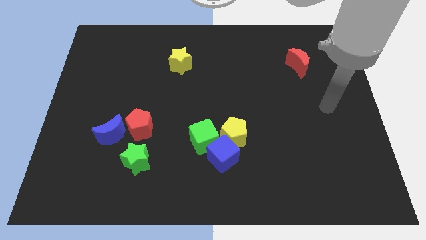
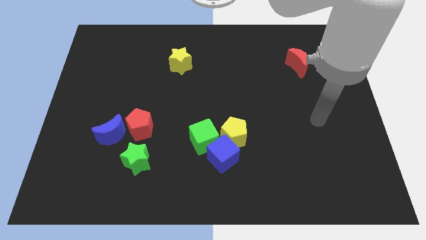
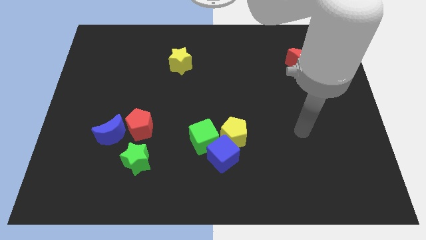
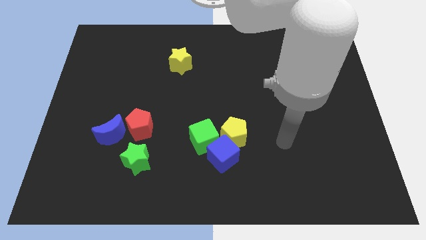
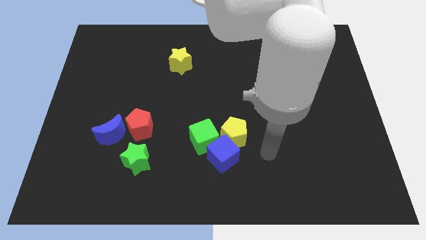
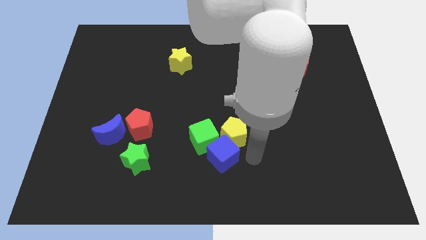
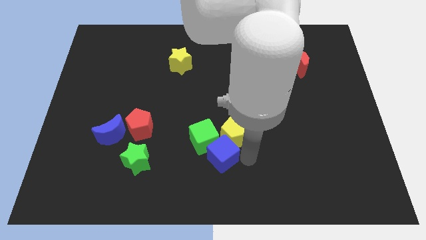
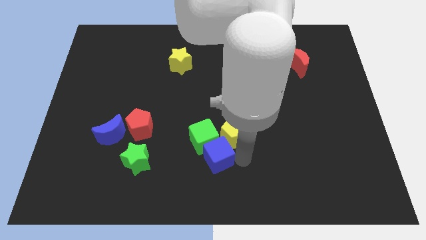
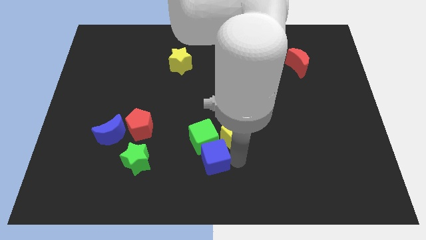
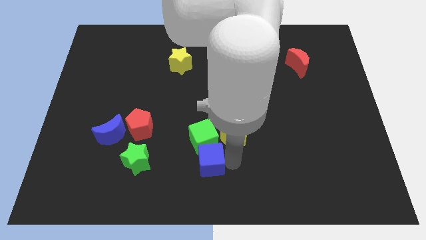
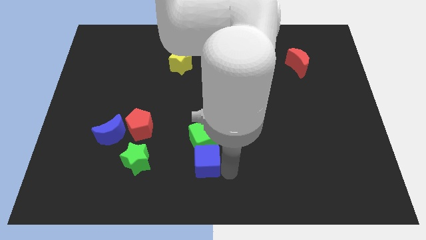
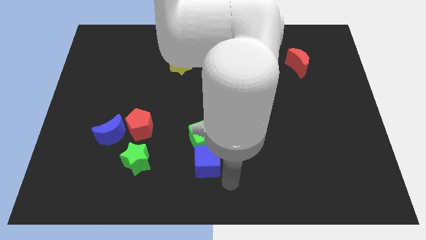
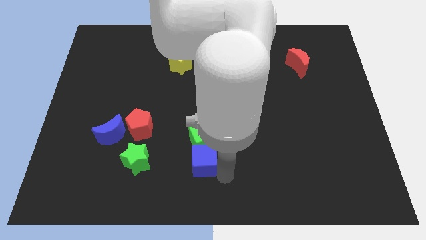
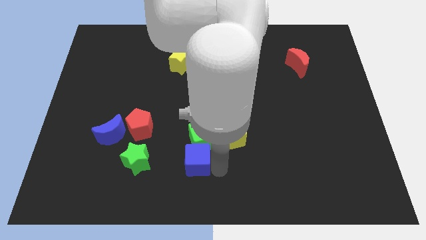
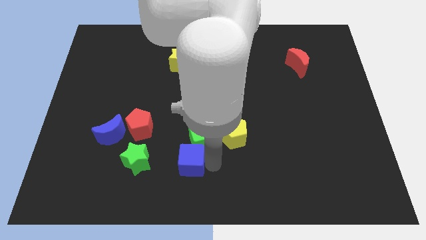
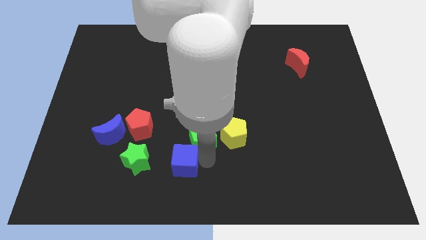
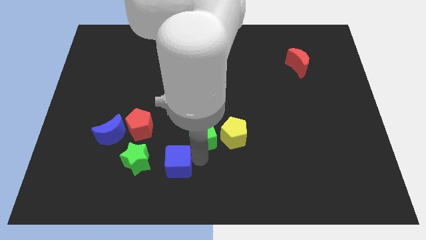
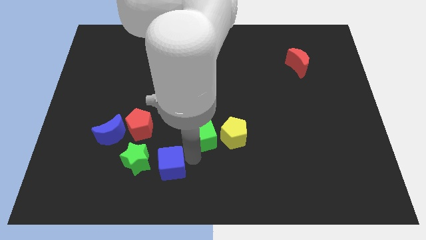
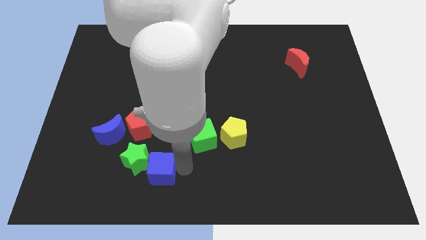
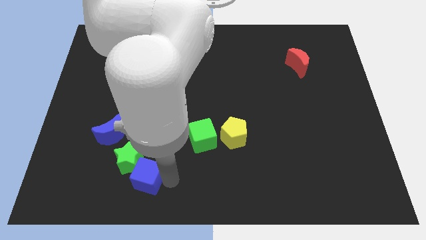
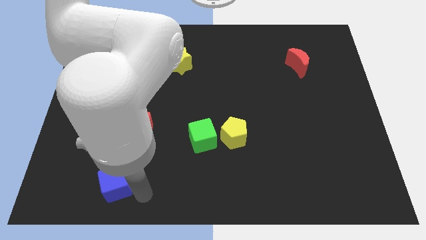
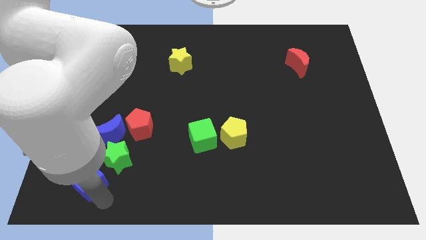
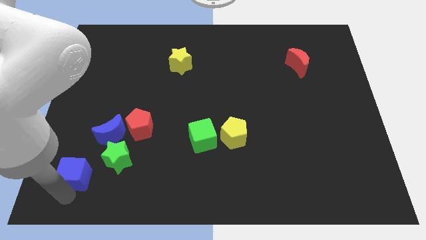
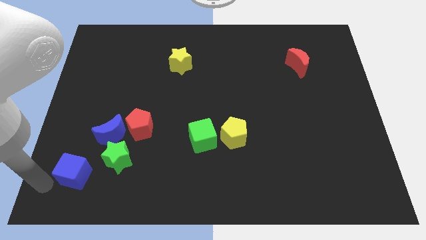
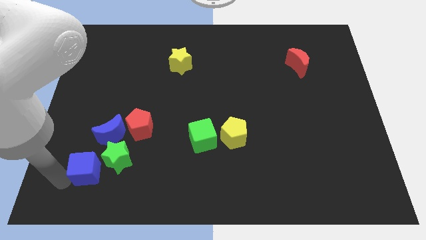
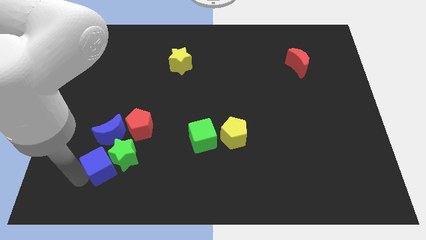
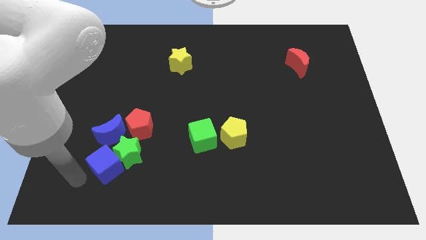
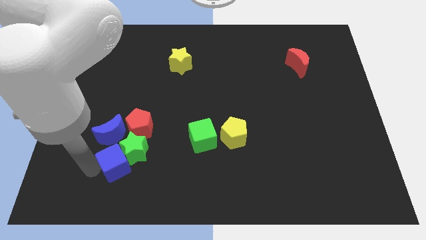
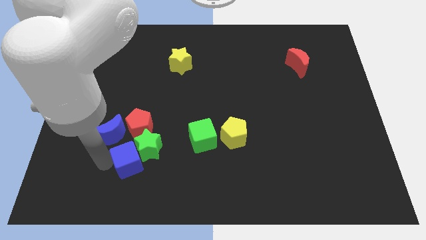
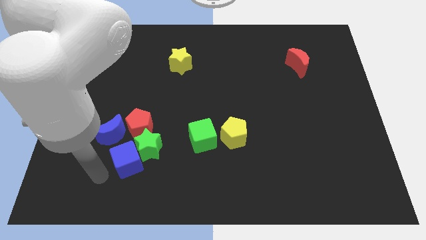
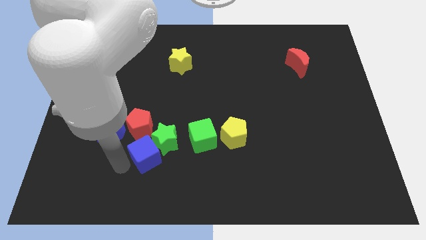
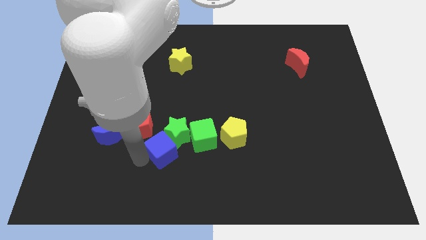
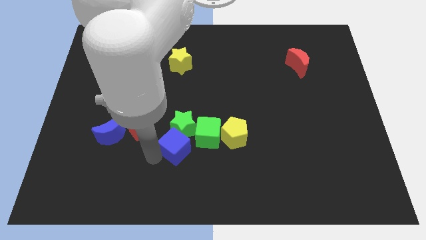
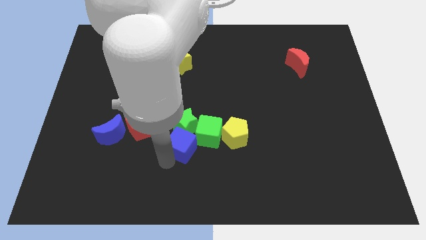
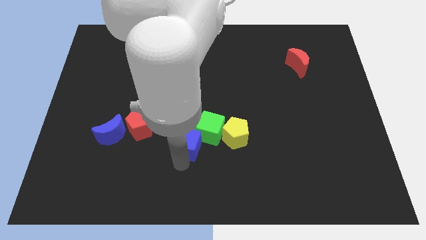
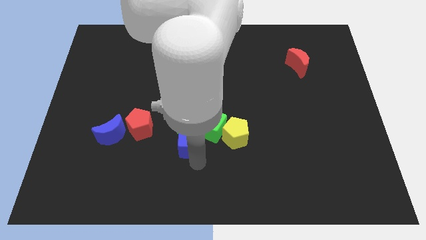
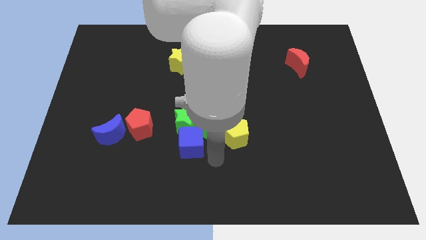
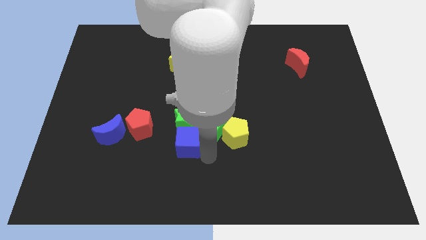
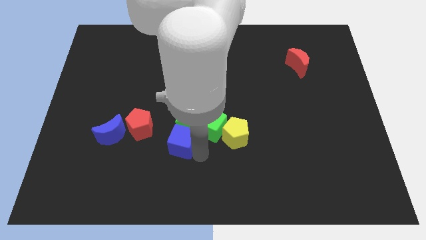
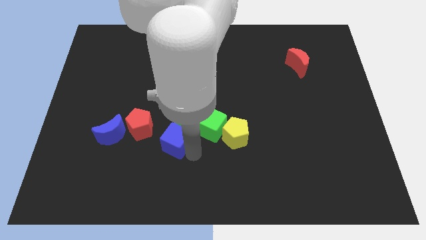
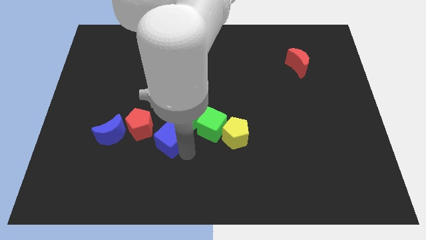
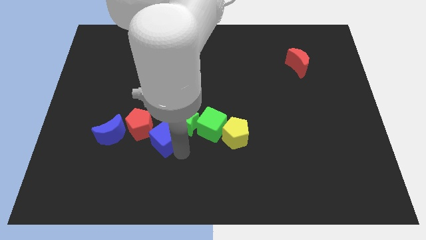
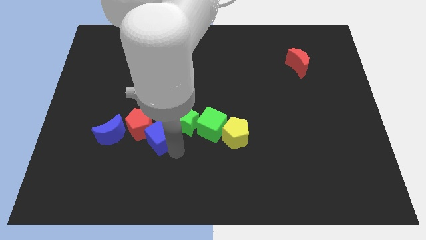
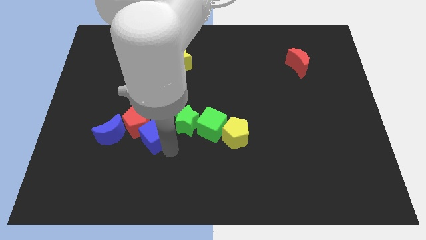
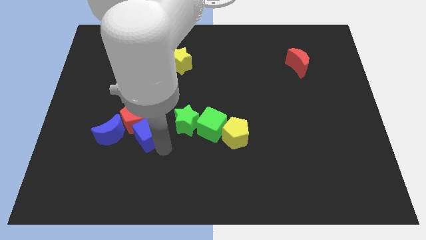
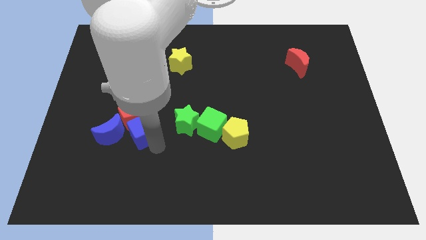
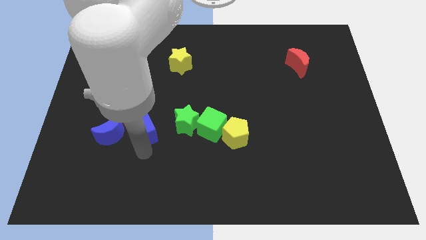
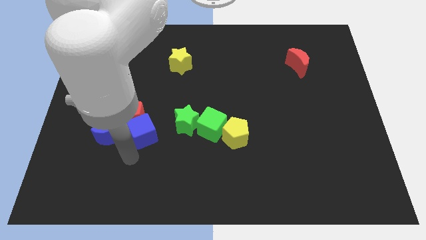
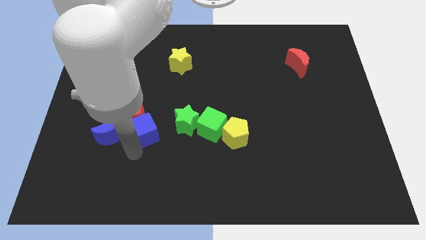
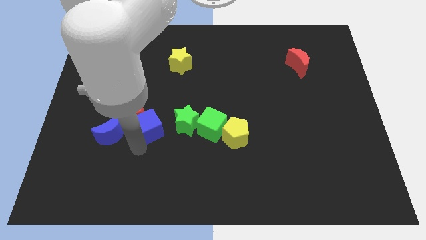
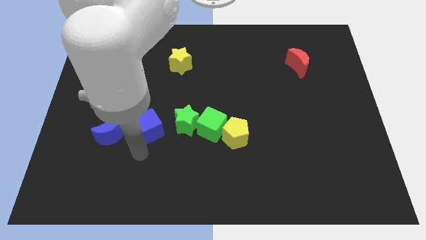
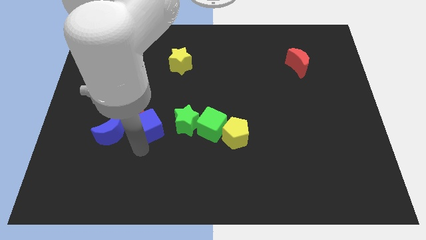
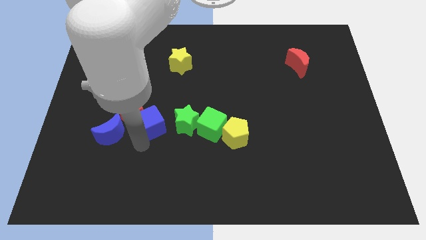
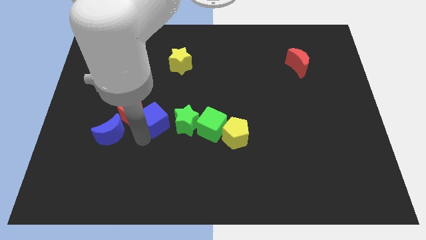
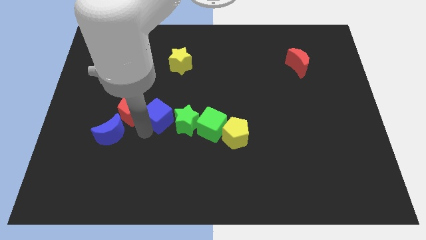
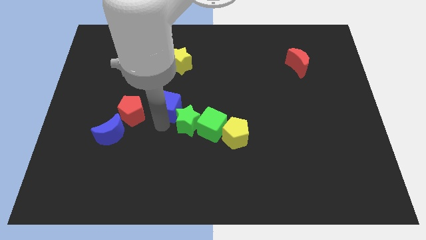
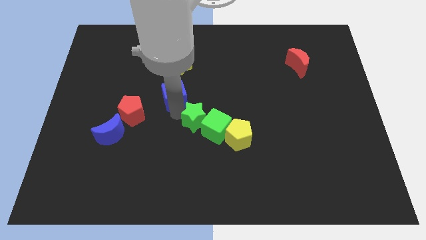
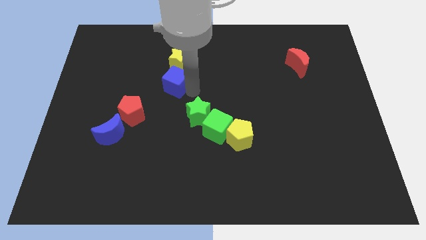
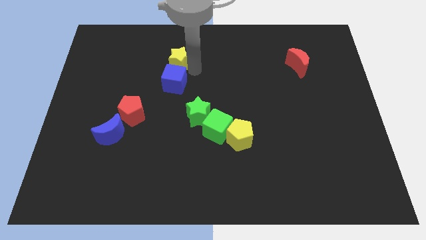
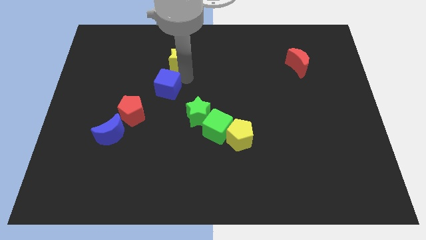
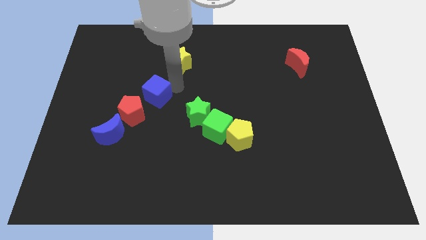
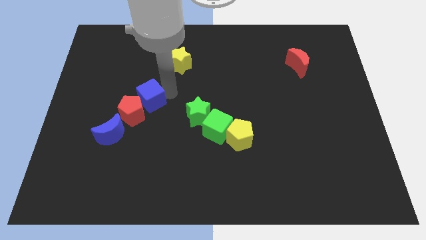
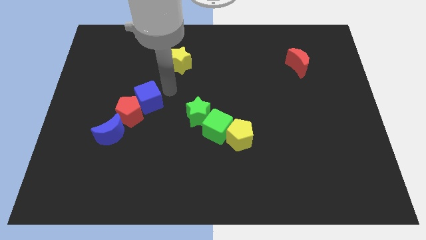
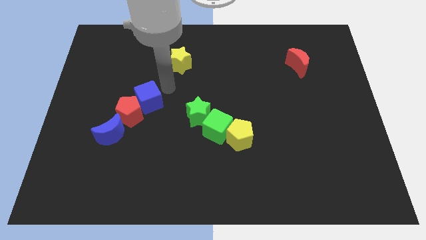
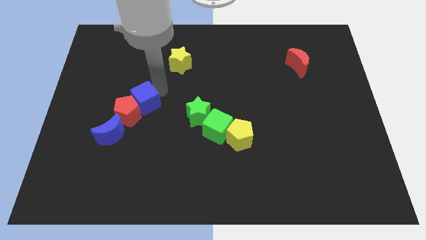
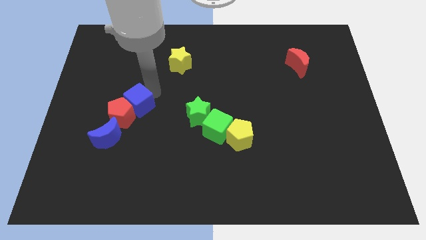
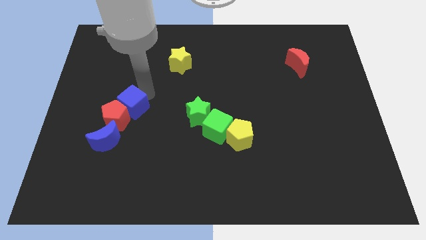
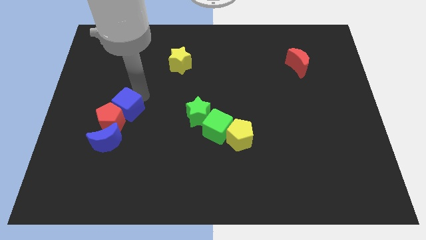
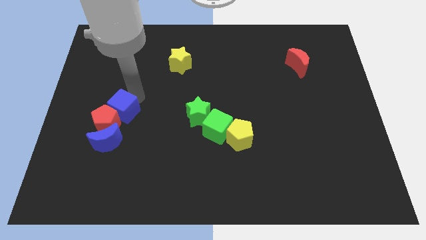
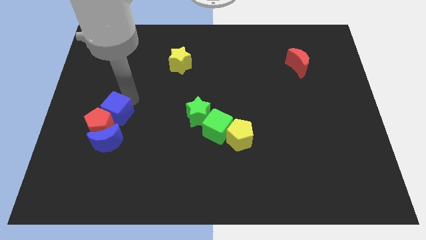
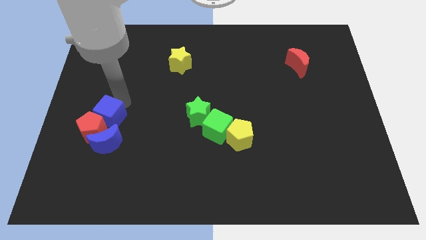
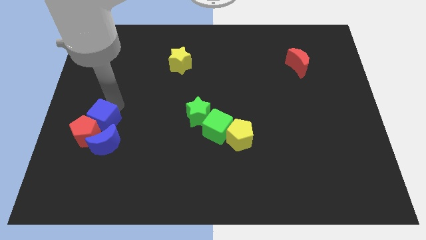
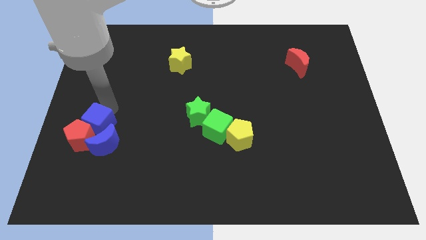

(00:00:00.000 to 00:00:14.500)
slide the blue cube next to the blue moon

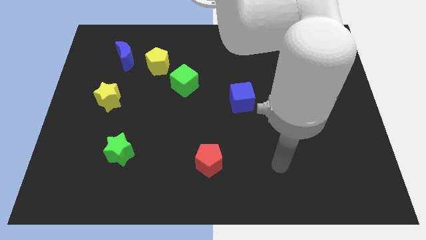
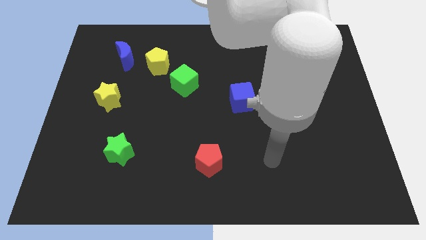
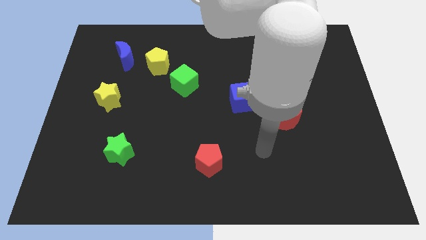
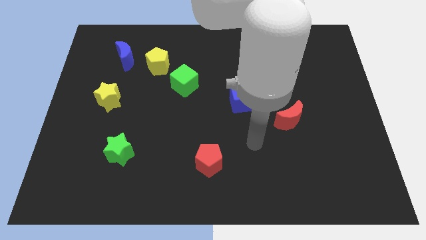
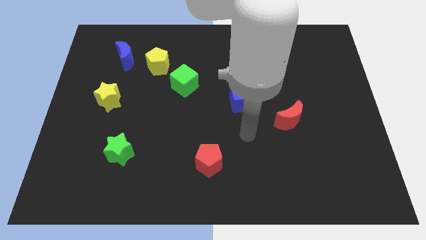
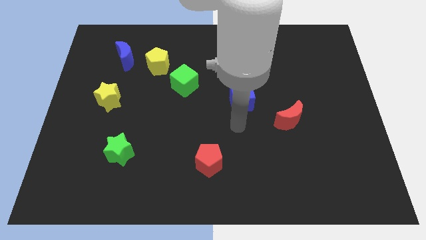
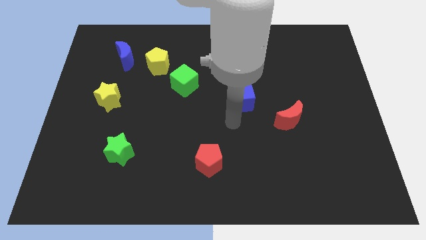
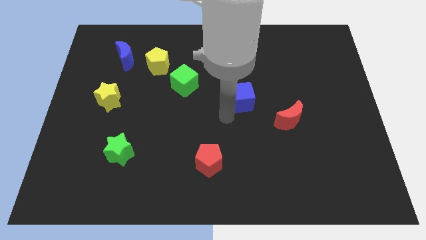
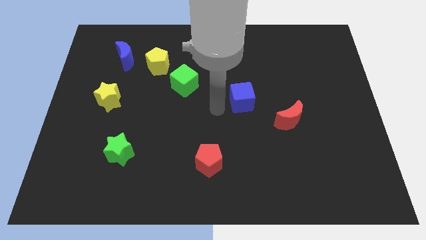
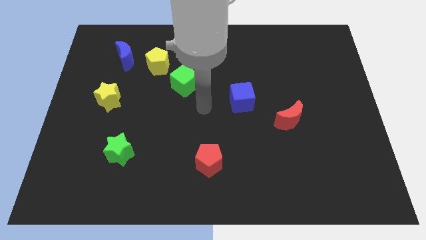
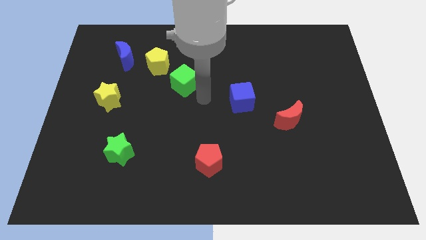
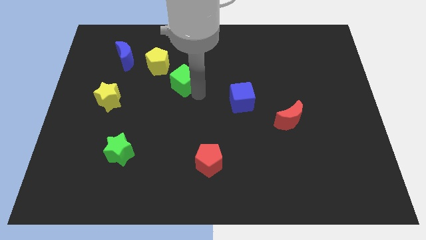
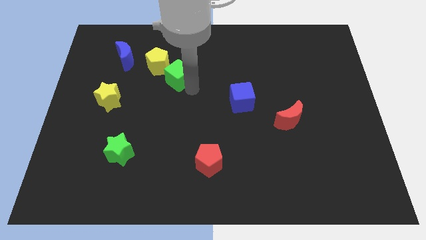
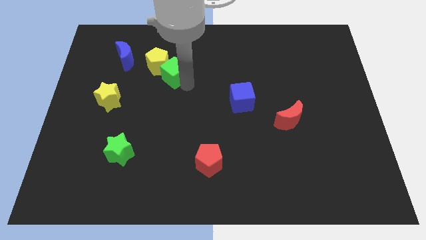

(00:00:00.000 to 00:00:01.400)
put the green cube towards the yellow pentagon
